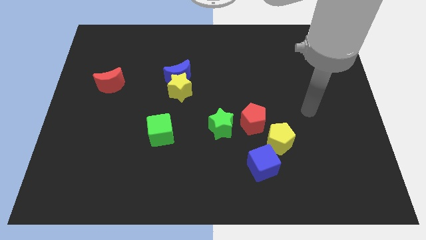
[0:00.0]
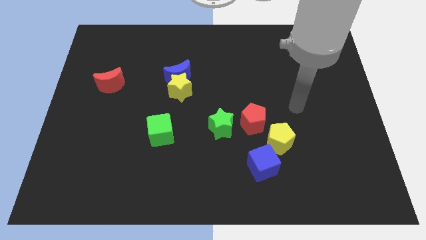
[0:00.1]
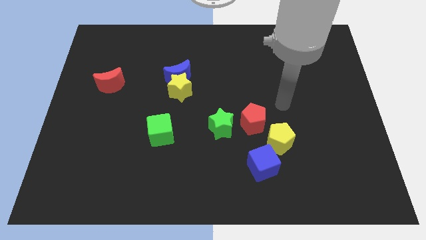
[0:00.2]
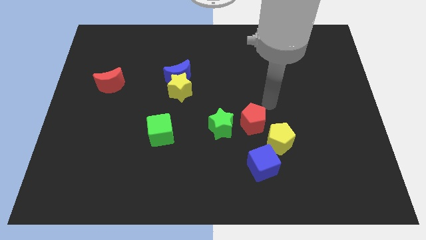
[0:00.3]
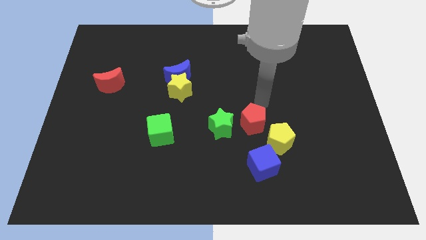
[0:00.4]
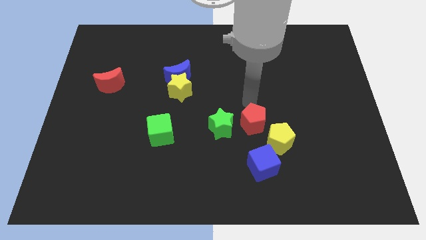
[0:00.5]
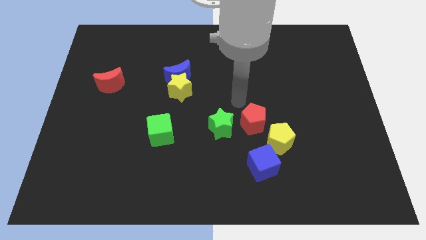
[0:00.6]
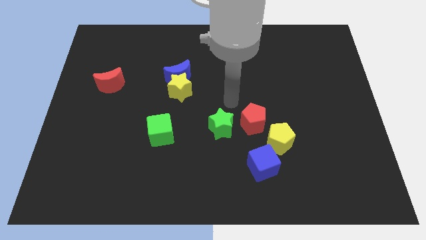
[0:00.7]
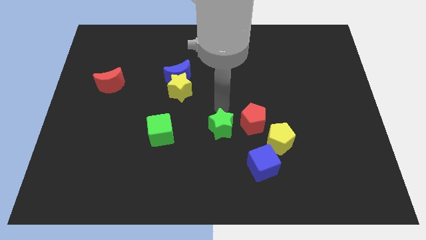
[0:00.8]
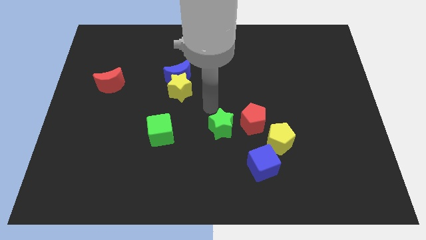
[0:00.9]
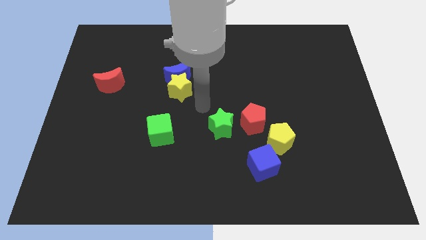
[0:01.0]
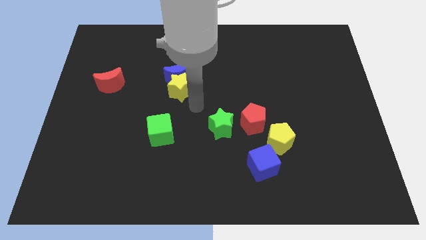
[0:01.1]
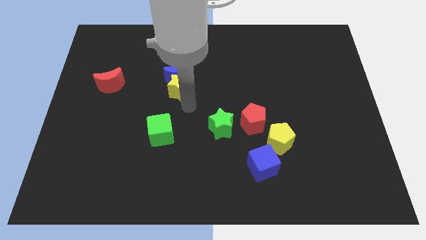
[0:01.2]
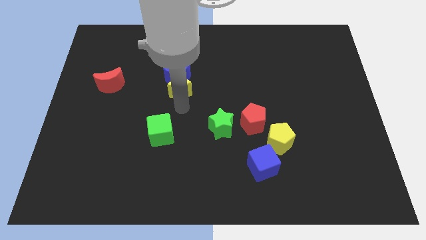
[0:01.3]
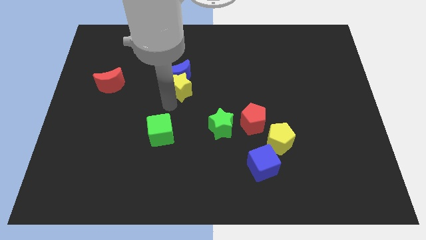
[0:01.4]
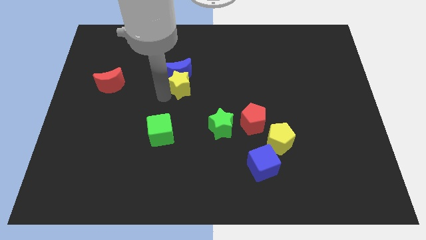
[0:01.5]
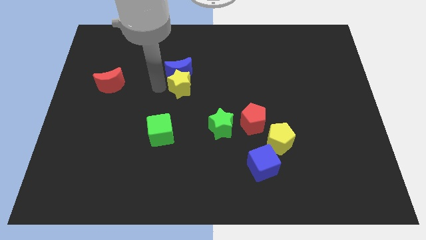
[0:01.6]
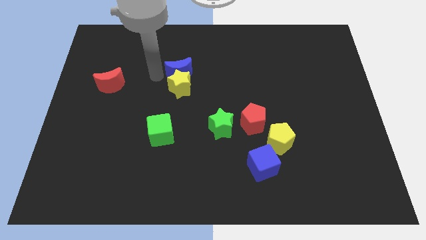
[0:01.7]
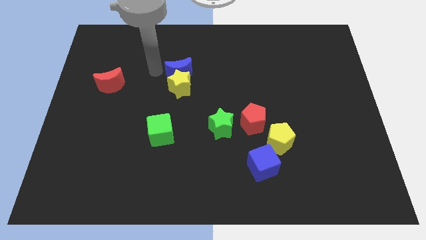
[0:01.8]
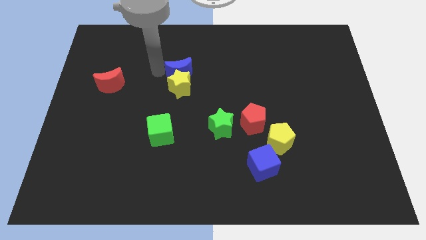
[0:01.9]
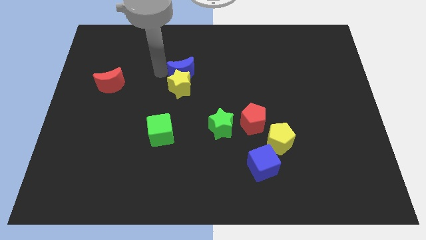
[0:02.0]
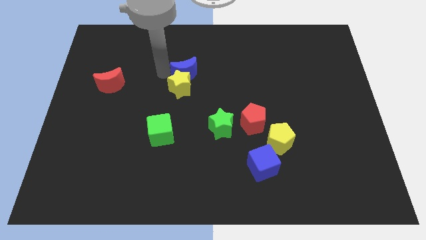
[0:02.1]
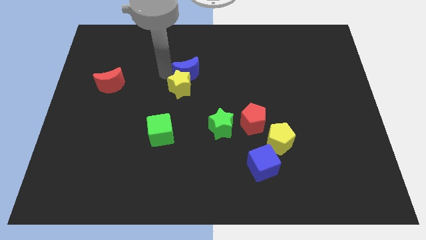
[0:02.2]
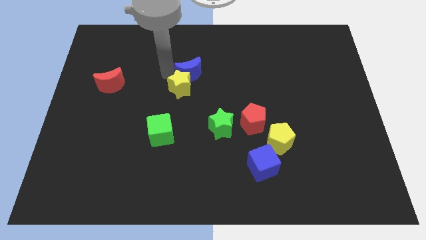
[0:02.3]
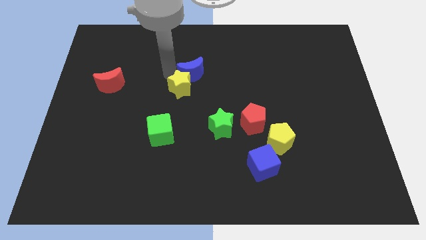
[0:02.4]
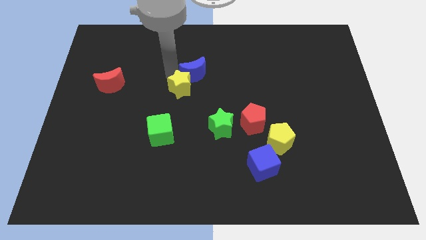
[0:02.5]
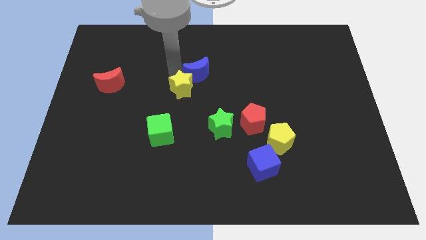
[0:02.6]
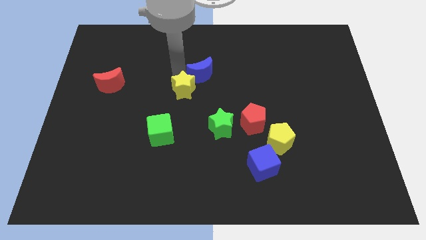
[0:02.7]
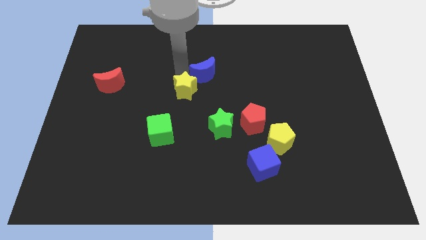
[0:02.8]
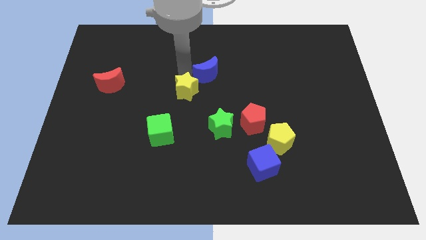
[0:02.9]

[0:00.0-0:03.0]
move the blue moon to the right a little bit

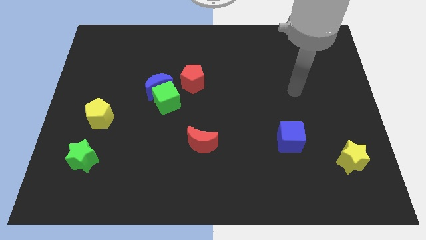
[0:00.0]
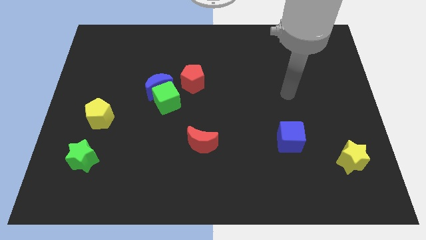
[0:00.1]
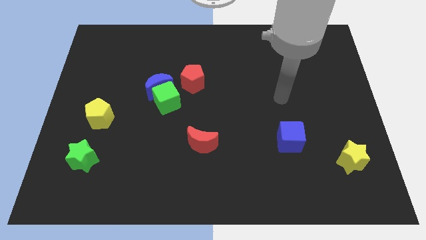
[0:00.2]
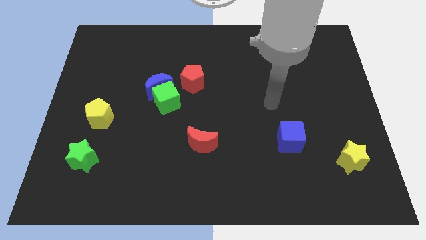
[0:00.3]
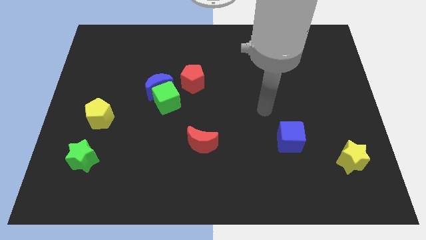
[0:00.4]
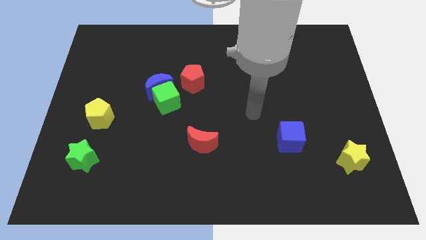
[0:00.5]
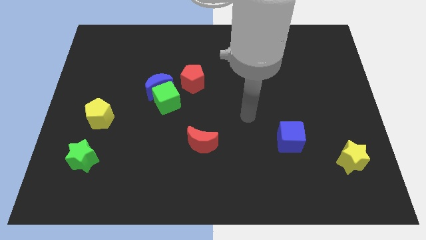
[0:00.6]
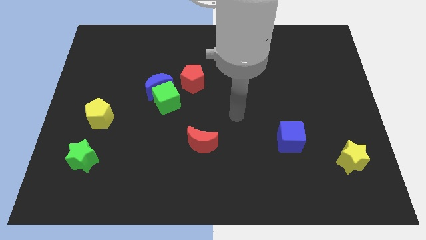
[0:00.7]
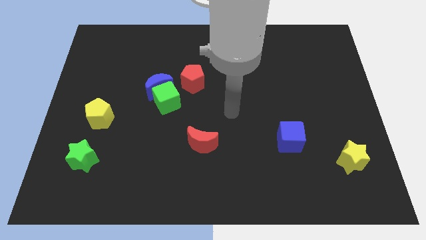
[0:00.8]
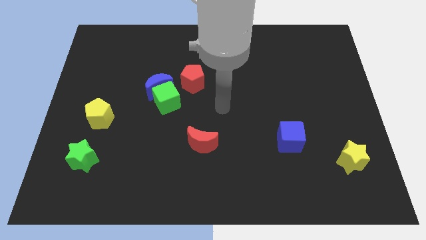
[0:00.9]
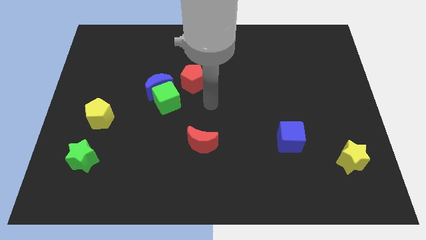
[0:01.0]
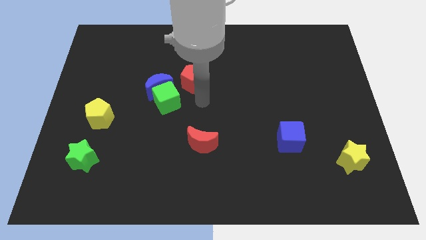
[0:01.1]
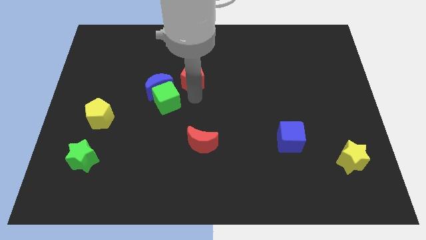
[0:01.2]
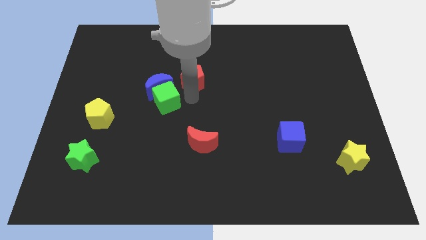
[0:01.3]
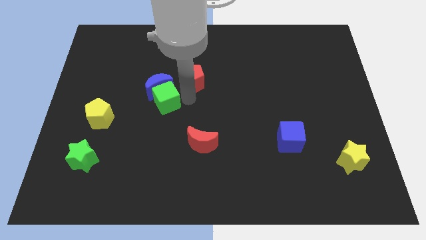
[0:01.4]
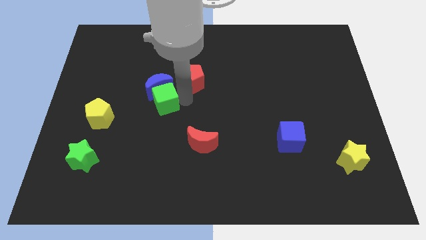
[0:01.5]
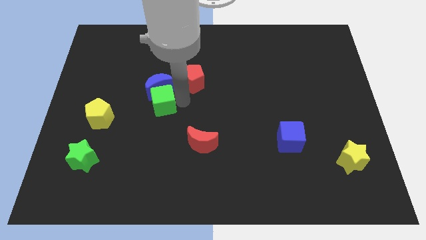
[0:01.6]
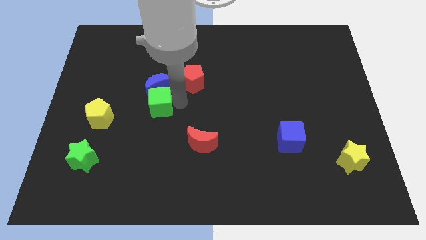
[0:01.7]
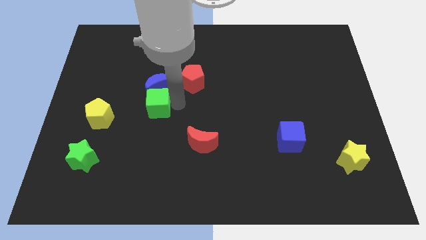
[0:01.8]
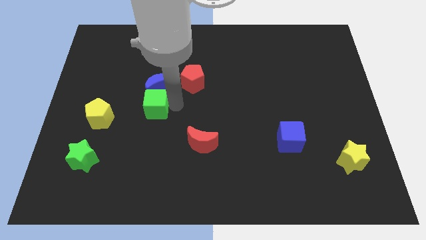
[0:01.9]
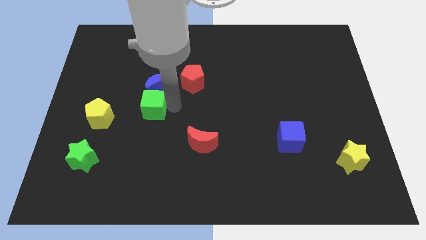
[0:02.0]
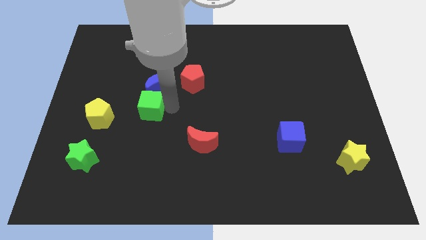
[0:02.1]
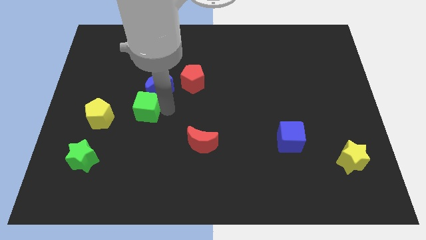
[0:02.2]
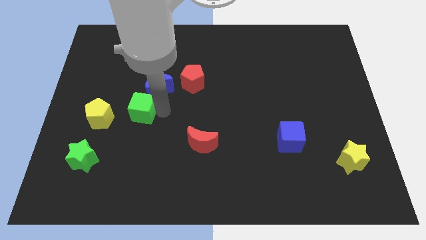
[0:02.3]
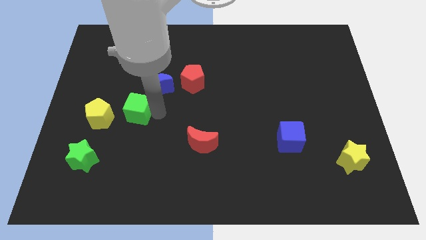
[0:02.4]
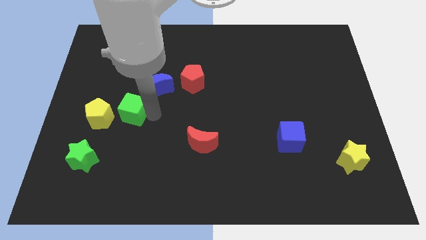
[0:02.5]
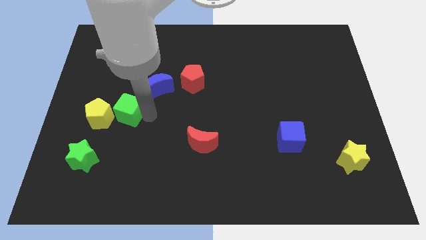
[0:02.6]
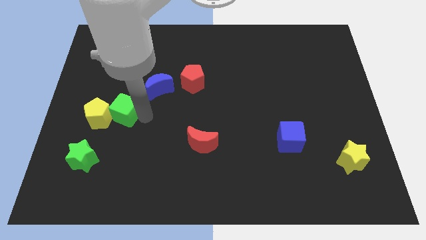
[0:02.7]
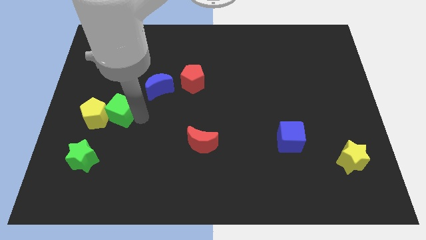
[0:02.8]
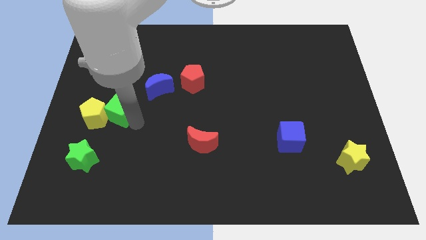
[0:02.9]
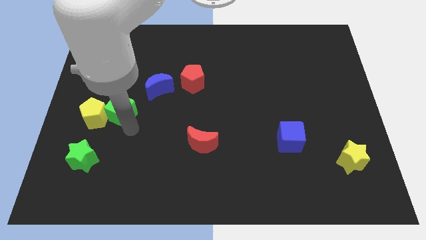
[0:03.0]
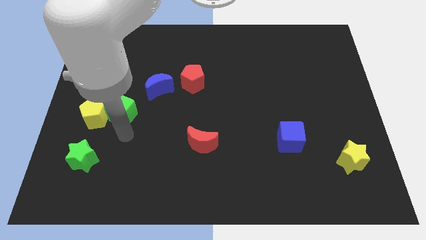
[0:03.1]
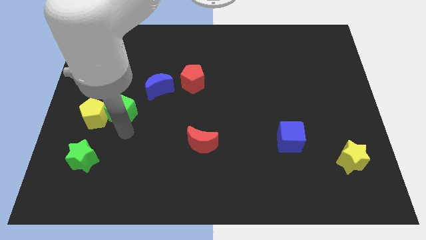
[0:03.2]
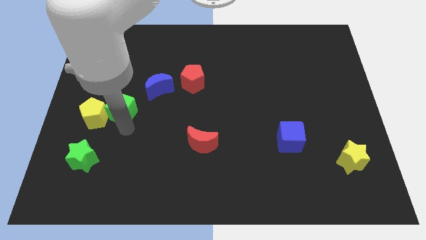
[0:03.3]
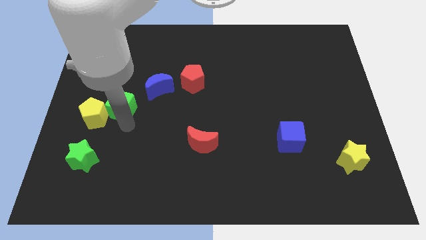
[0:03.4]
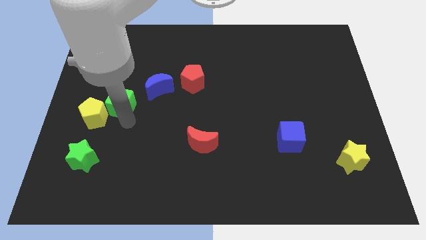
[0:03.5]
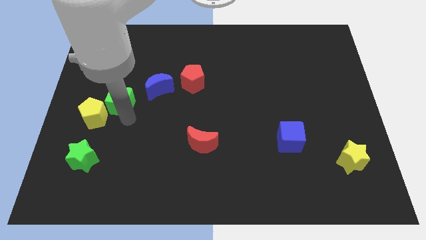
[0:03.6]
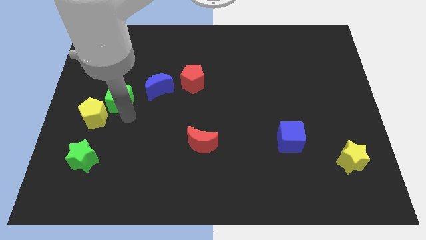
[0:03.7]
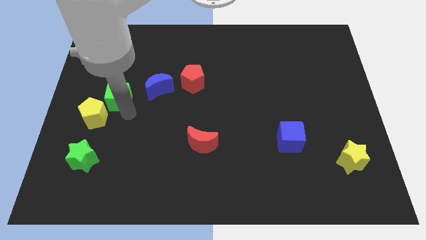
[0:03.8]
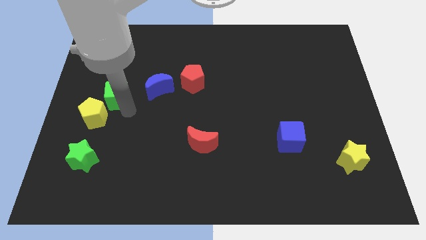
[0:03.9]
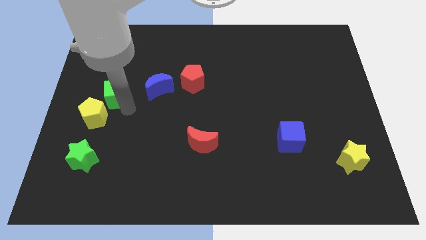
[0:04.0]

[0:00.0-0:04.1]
move the green cube a little bit up and then left

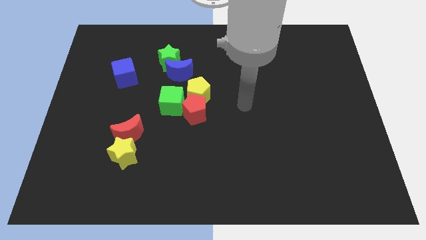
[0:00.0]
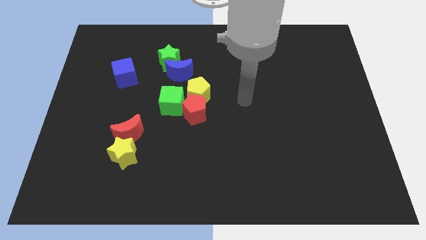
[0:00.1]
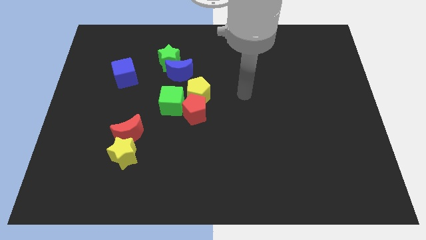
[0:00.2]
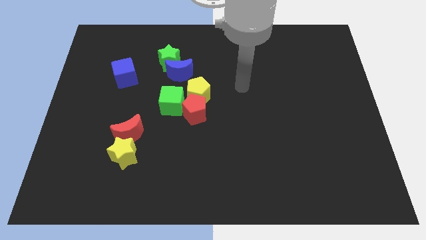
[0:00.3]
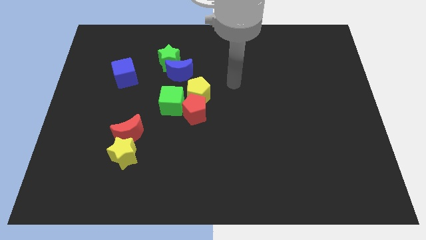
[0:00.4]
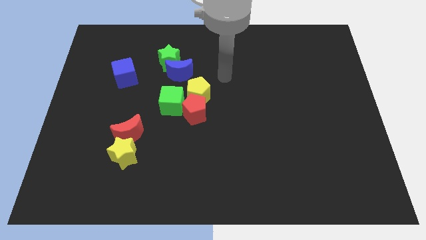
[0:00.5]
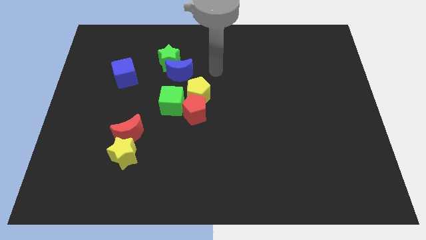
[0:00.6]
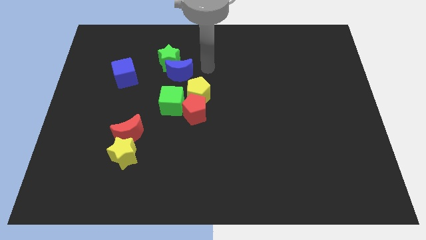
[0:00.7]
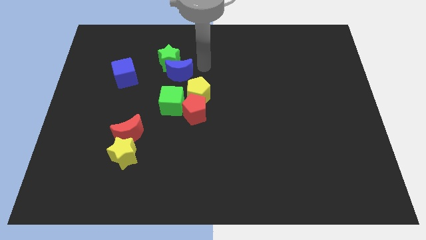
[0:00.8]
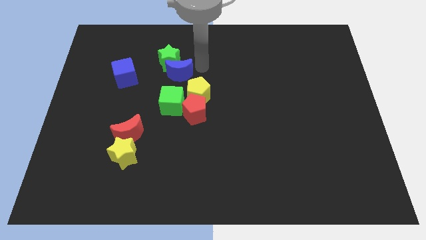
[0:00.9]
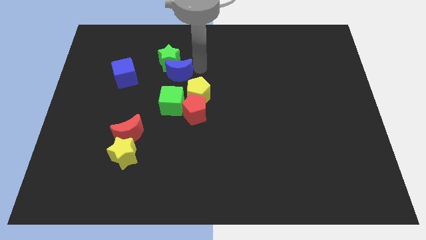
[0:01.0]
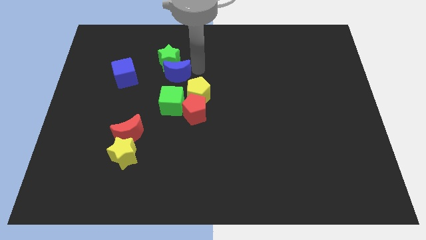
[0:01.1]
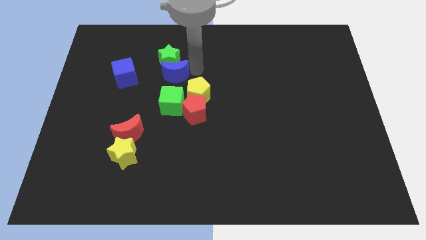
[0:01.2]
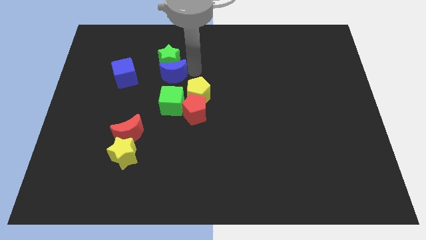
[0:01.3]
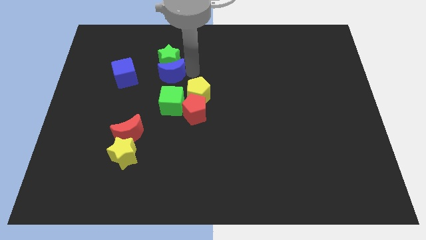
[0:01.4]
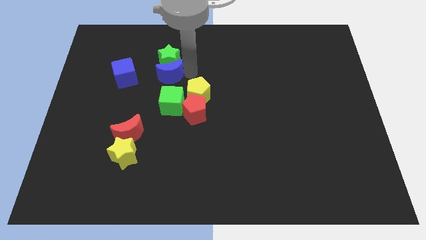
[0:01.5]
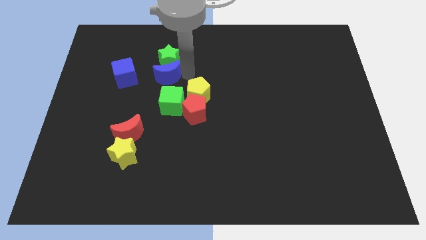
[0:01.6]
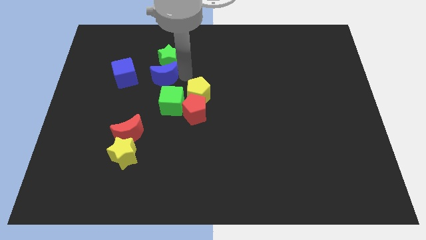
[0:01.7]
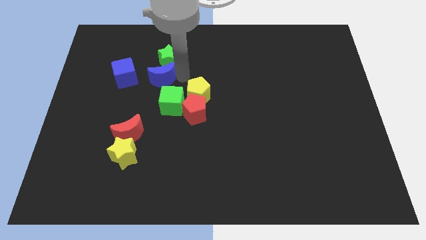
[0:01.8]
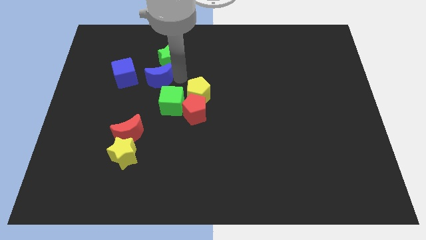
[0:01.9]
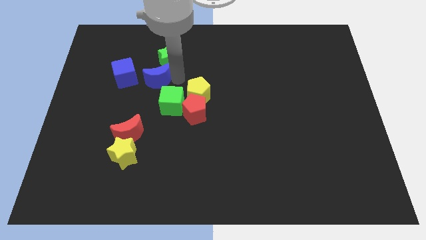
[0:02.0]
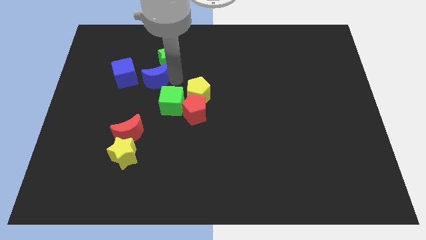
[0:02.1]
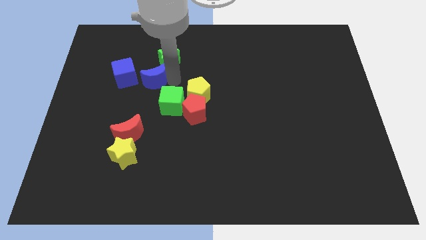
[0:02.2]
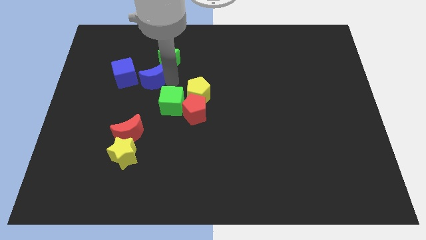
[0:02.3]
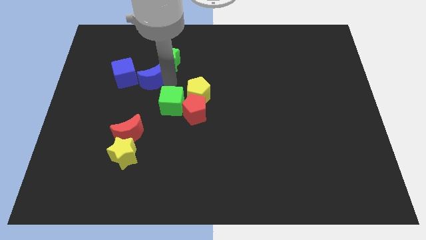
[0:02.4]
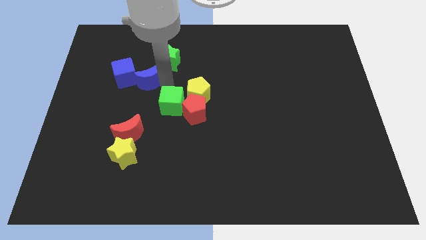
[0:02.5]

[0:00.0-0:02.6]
slide the blue moon left a little
